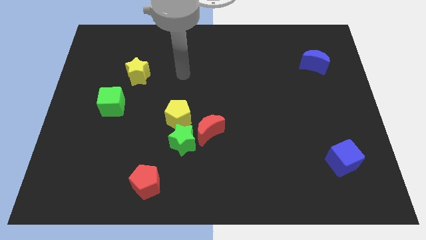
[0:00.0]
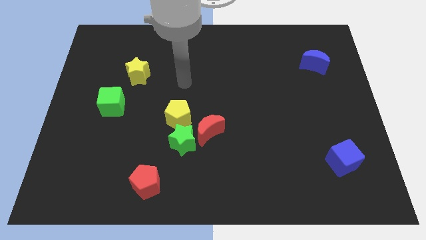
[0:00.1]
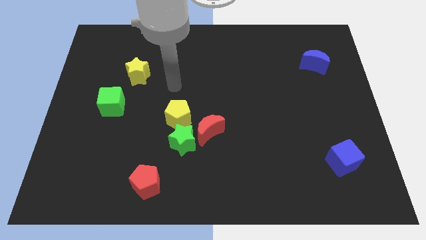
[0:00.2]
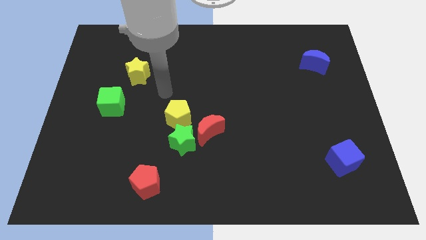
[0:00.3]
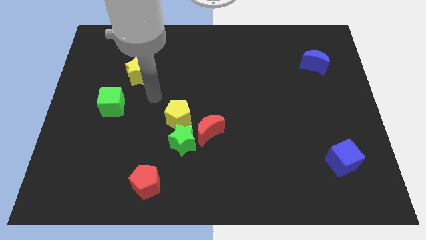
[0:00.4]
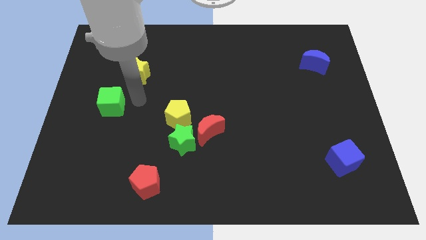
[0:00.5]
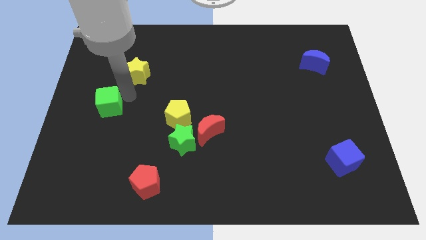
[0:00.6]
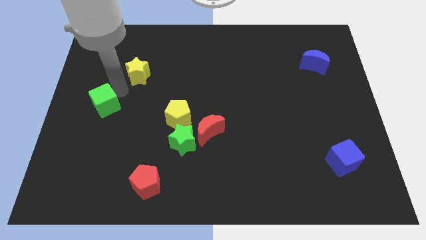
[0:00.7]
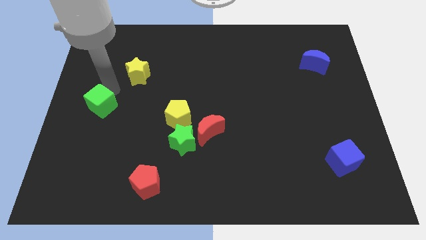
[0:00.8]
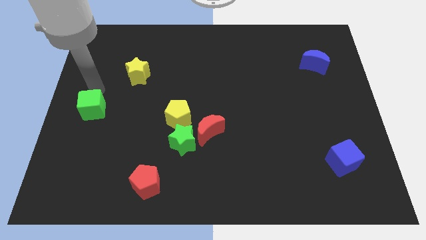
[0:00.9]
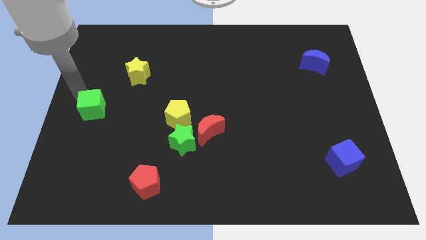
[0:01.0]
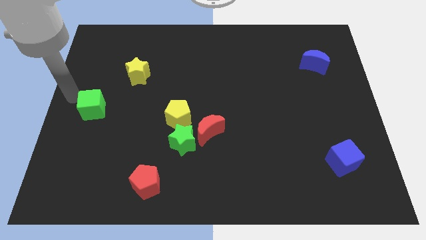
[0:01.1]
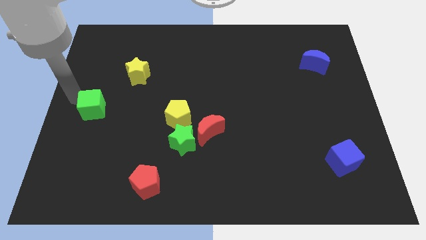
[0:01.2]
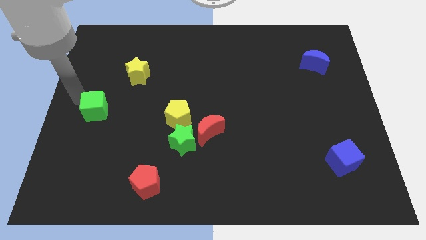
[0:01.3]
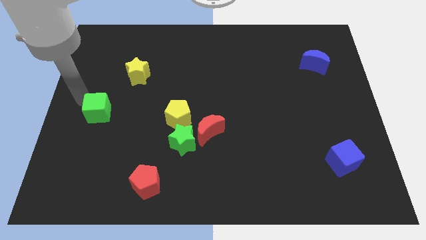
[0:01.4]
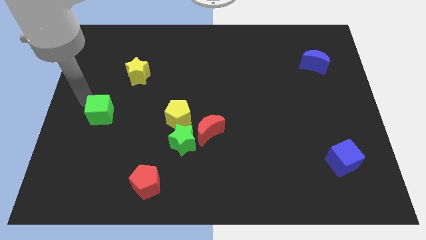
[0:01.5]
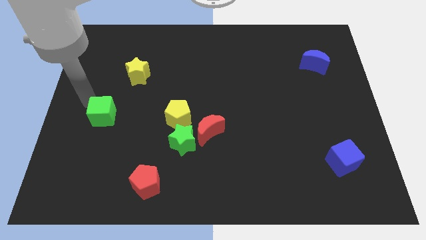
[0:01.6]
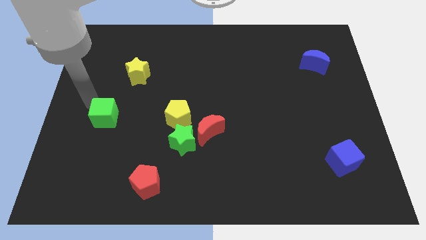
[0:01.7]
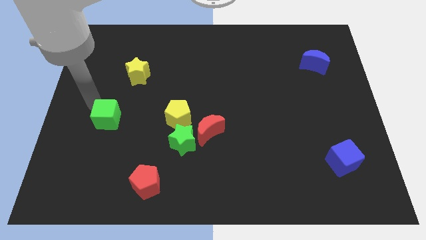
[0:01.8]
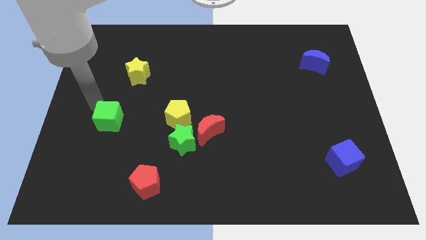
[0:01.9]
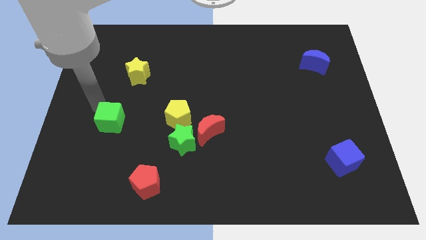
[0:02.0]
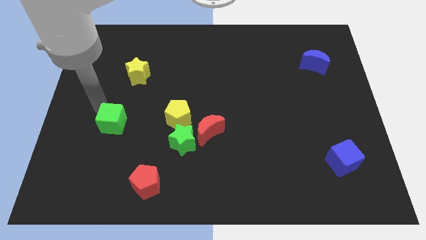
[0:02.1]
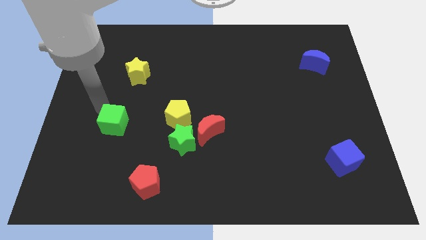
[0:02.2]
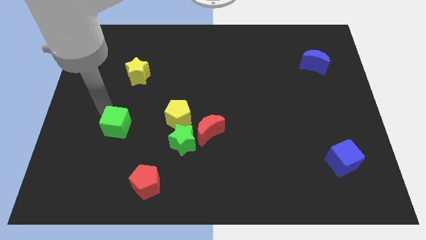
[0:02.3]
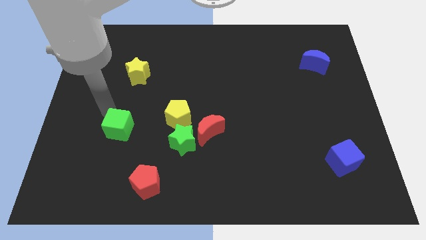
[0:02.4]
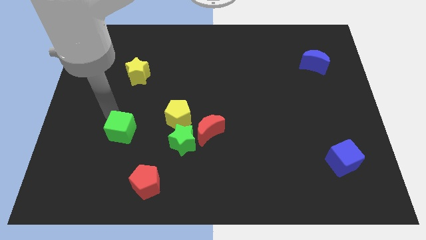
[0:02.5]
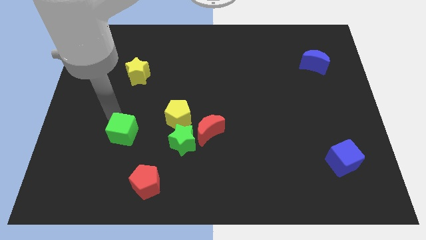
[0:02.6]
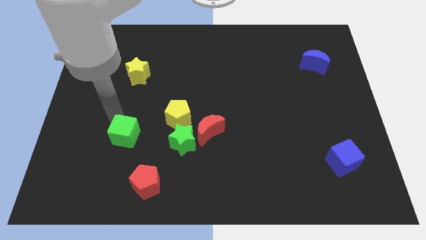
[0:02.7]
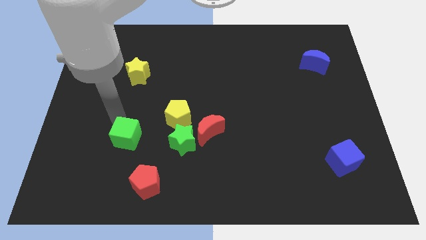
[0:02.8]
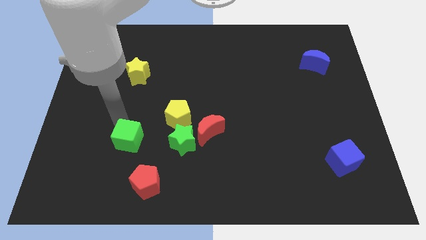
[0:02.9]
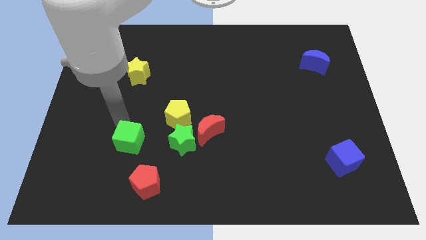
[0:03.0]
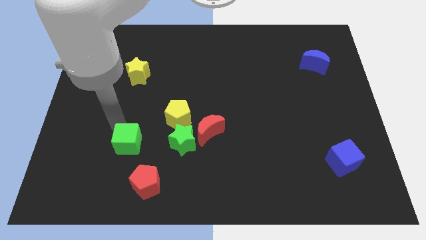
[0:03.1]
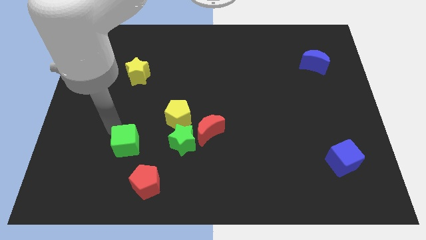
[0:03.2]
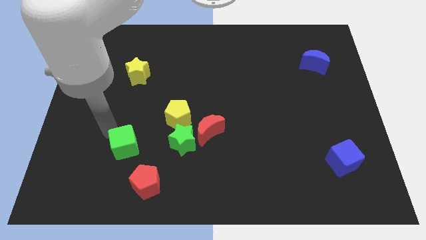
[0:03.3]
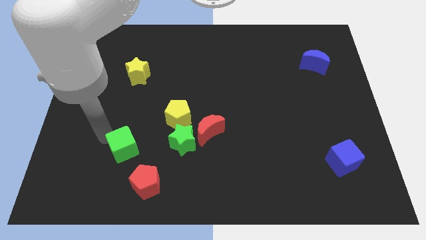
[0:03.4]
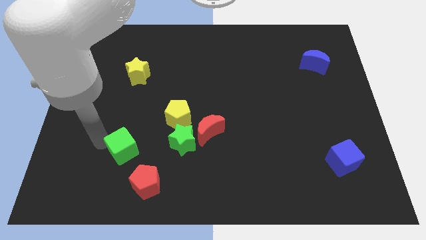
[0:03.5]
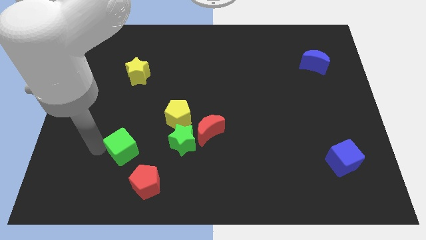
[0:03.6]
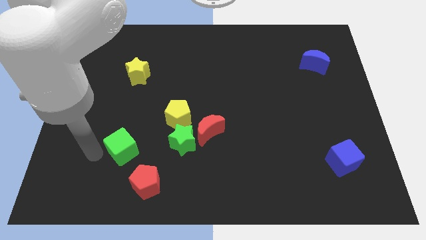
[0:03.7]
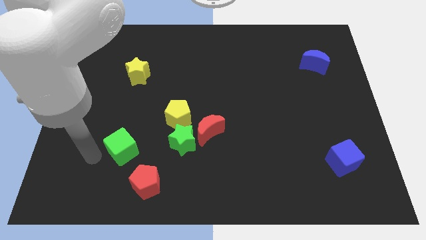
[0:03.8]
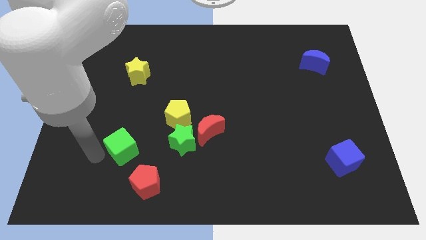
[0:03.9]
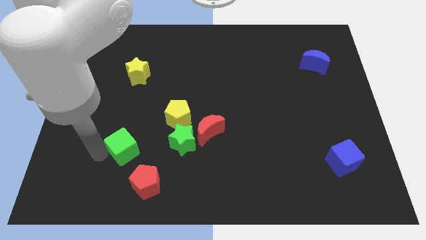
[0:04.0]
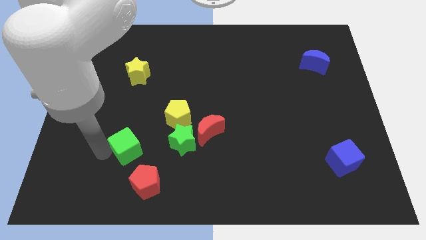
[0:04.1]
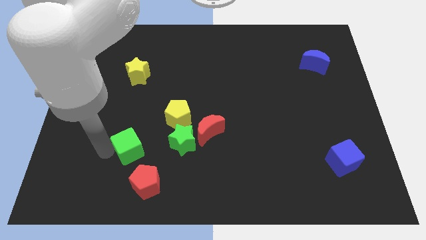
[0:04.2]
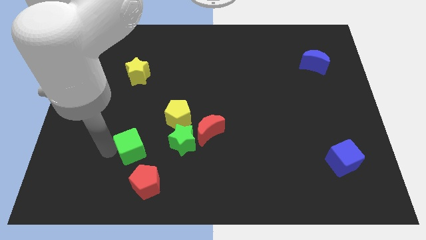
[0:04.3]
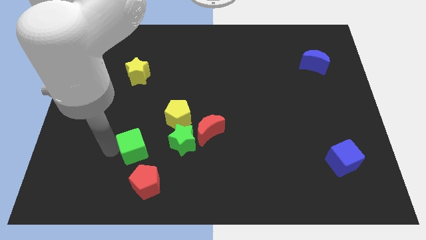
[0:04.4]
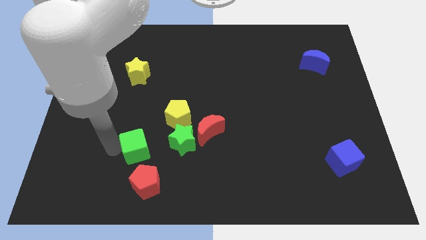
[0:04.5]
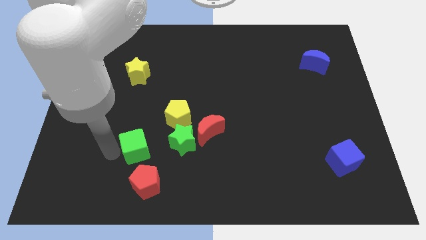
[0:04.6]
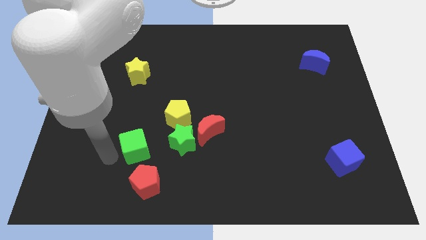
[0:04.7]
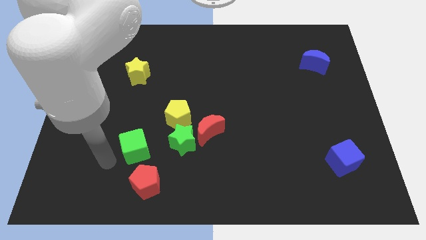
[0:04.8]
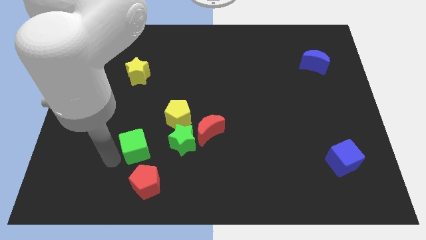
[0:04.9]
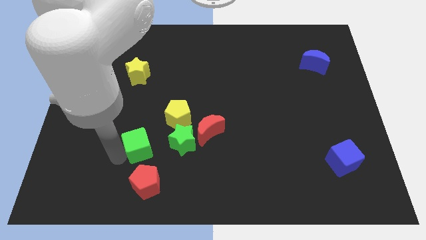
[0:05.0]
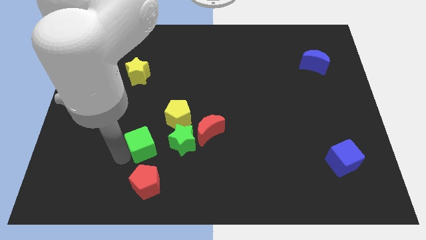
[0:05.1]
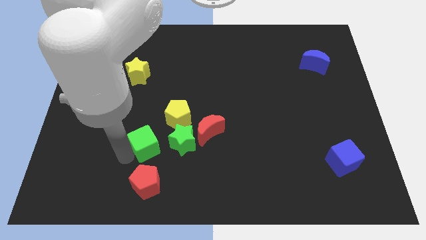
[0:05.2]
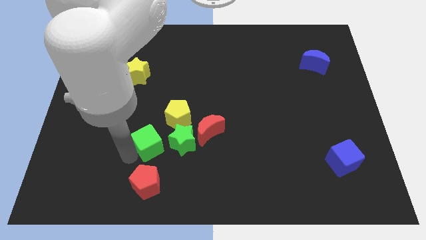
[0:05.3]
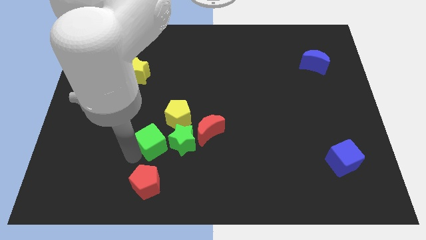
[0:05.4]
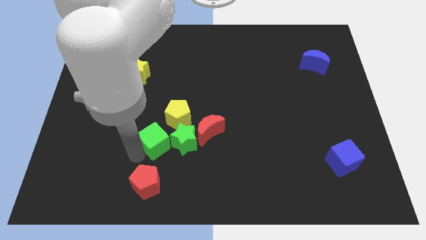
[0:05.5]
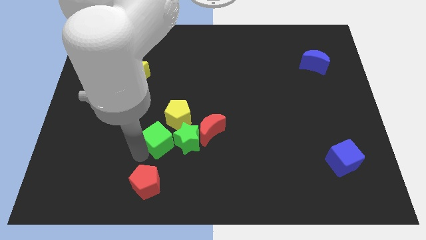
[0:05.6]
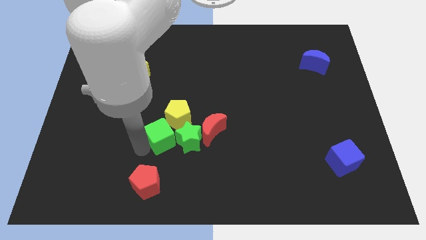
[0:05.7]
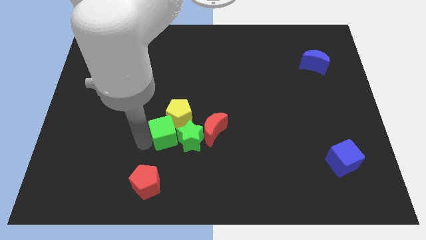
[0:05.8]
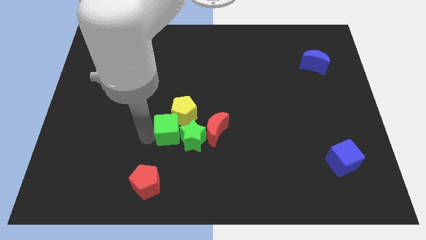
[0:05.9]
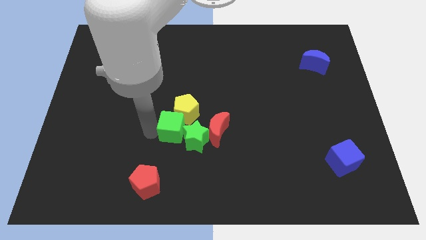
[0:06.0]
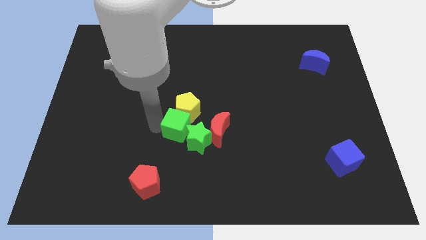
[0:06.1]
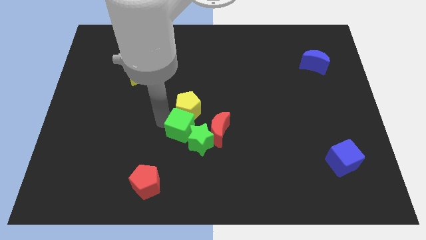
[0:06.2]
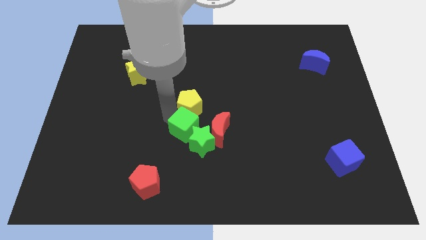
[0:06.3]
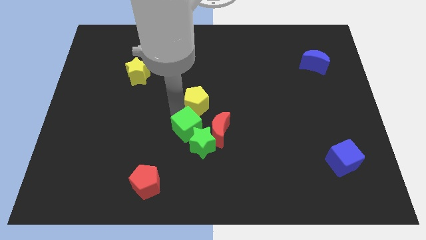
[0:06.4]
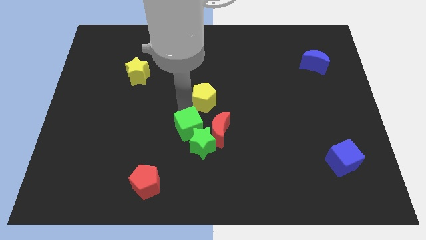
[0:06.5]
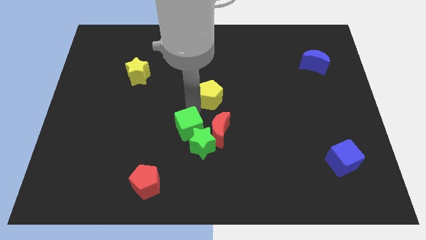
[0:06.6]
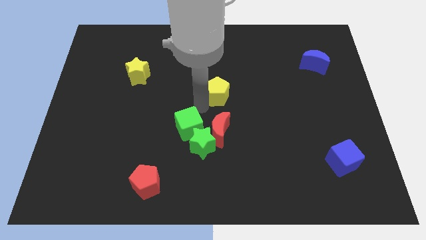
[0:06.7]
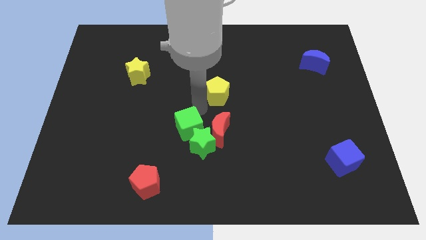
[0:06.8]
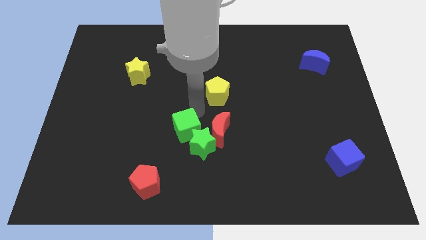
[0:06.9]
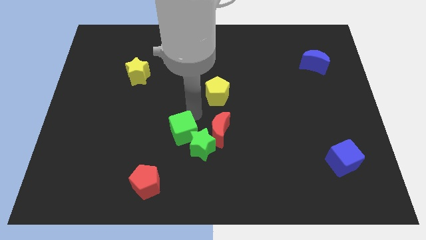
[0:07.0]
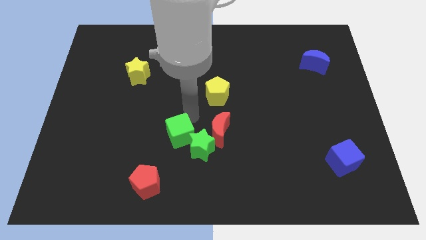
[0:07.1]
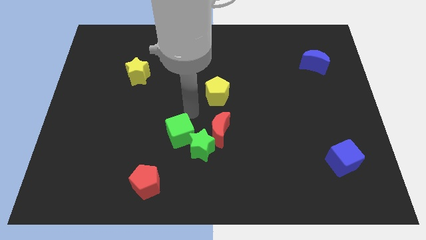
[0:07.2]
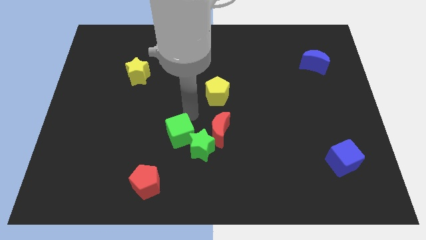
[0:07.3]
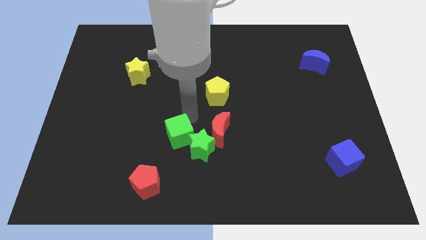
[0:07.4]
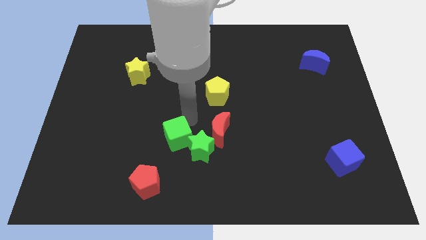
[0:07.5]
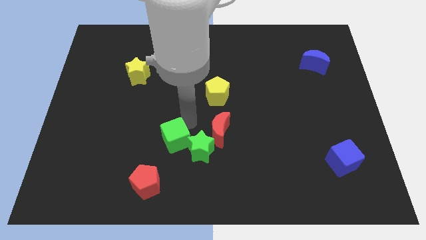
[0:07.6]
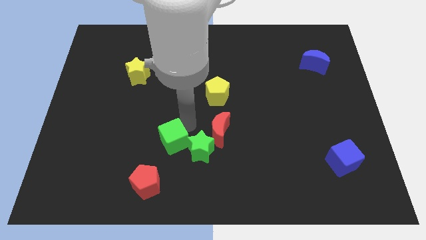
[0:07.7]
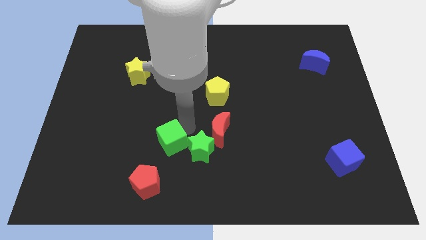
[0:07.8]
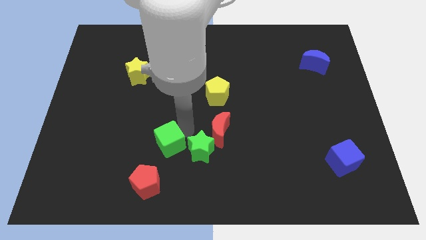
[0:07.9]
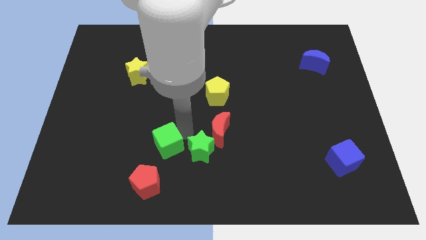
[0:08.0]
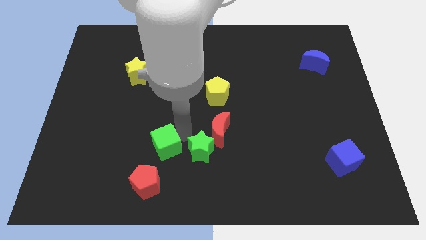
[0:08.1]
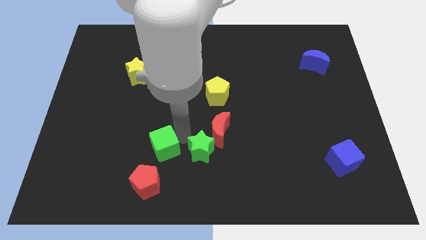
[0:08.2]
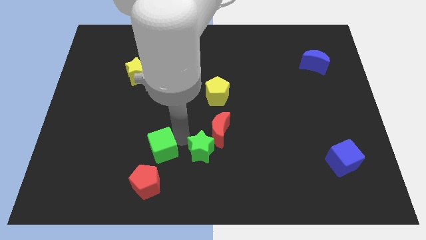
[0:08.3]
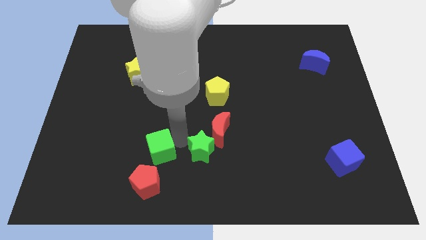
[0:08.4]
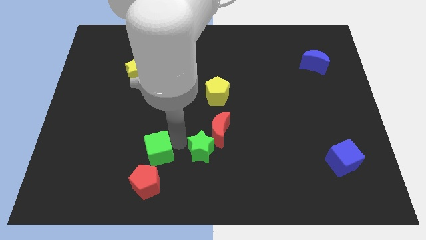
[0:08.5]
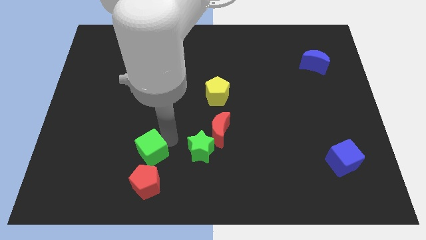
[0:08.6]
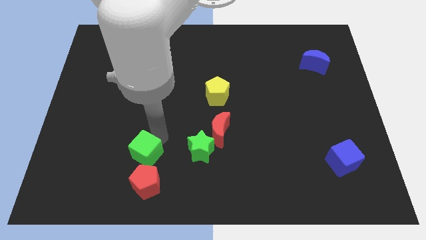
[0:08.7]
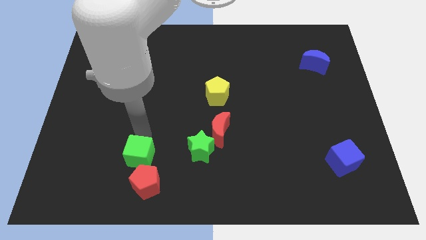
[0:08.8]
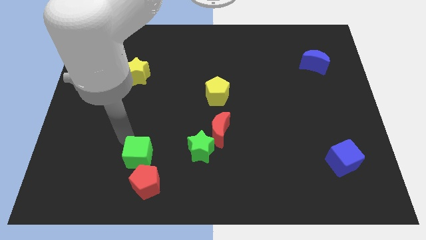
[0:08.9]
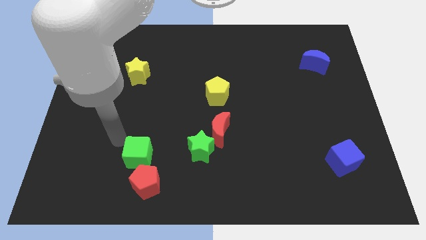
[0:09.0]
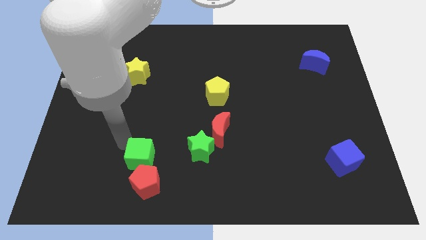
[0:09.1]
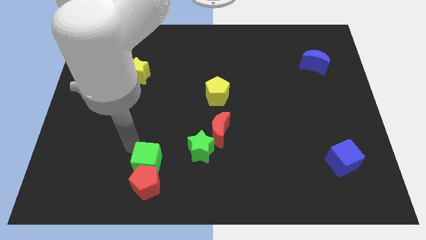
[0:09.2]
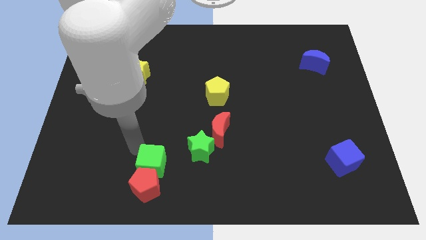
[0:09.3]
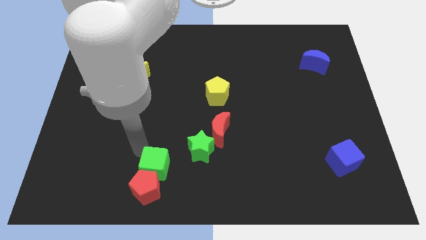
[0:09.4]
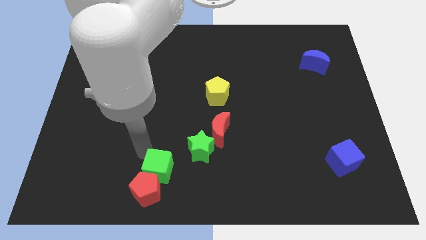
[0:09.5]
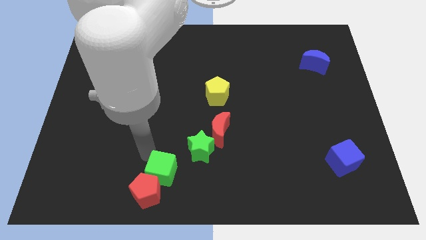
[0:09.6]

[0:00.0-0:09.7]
move the green cube to the bottom side
